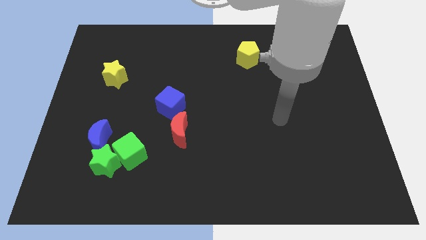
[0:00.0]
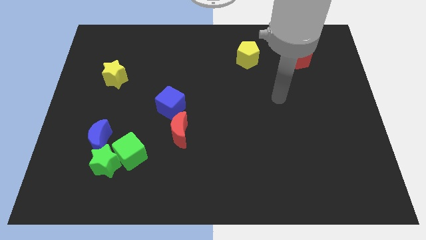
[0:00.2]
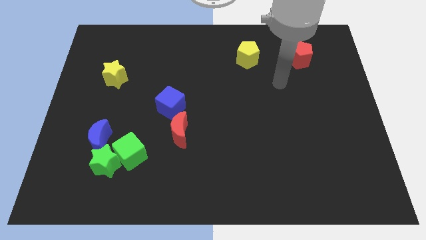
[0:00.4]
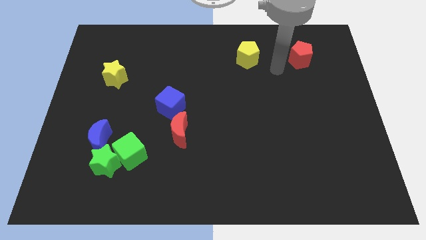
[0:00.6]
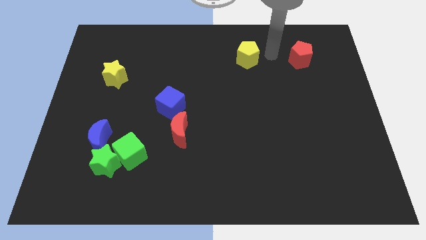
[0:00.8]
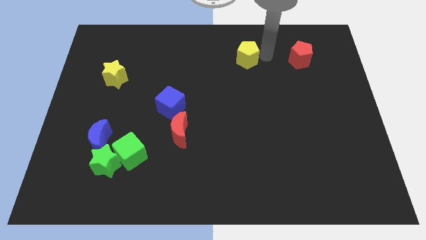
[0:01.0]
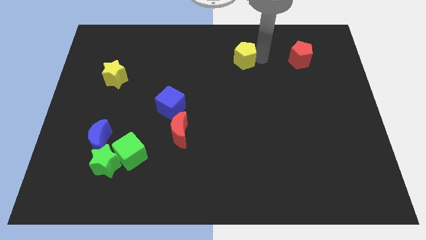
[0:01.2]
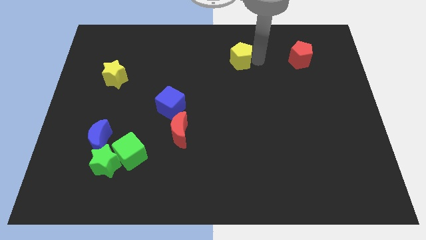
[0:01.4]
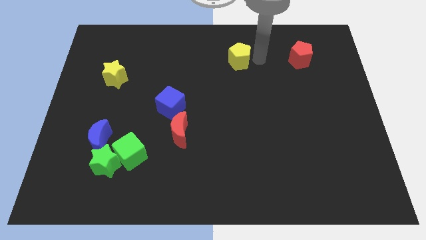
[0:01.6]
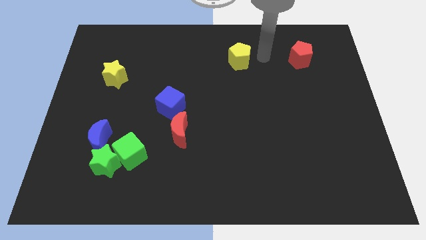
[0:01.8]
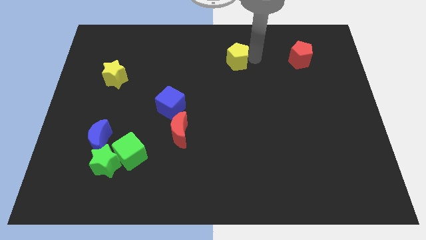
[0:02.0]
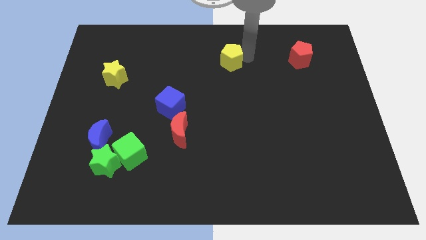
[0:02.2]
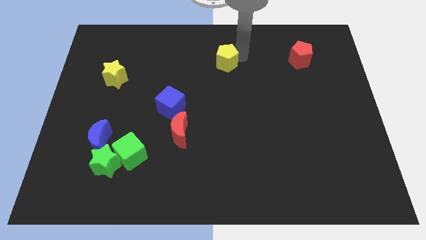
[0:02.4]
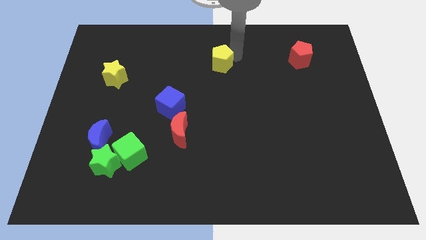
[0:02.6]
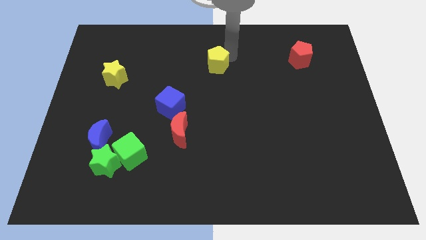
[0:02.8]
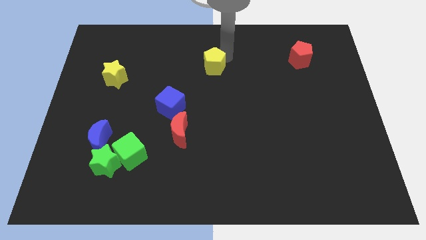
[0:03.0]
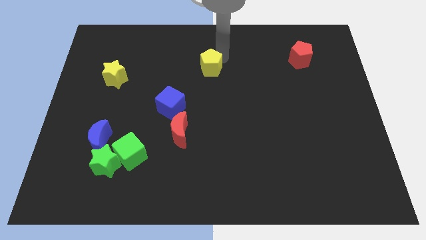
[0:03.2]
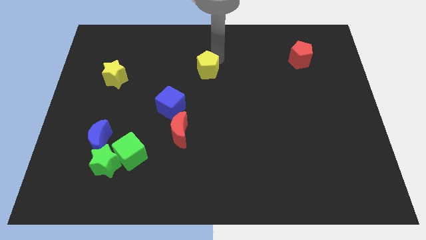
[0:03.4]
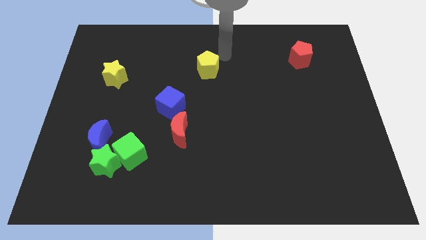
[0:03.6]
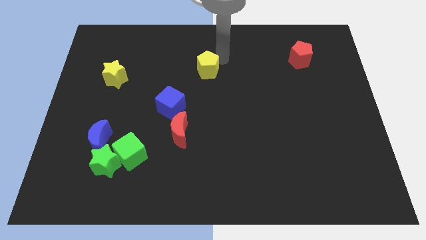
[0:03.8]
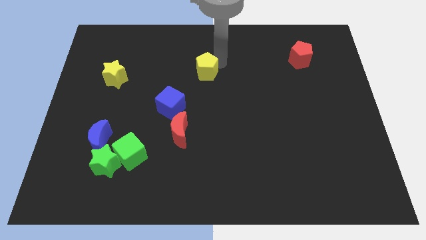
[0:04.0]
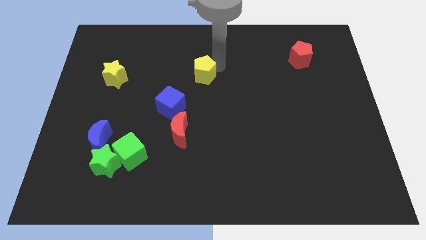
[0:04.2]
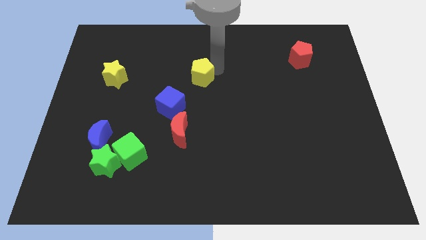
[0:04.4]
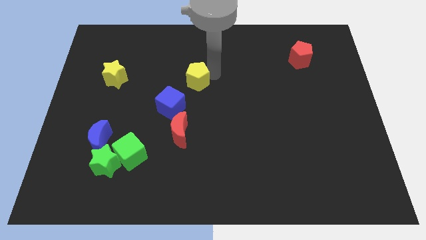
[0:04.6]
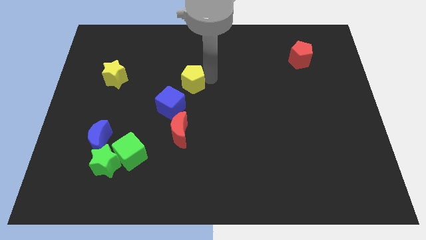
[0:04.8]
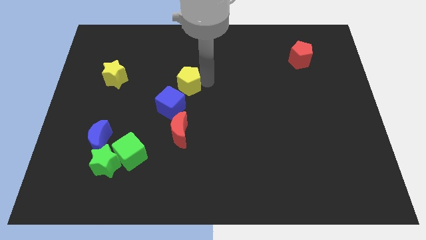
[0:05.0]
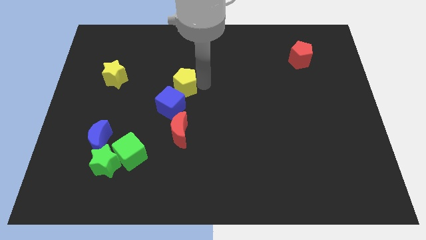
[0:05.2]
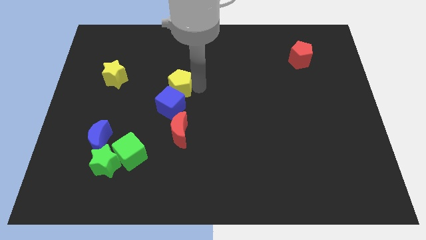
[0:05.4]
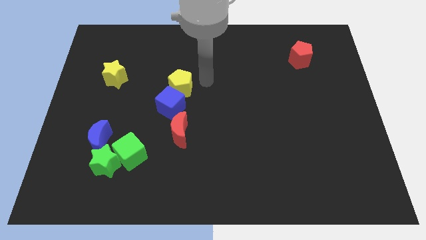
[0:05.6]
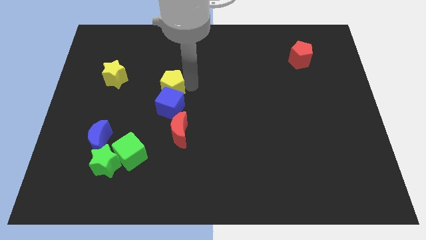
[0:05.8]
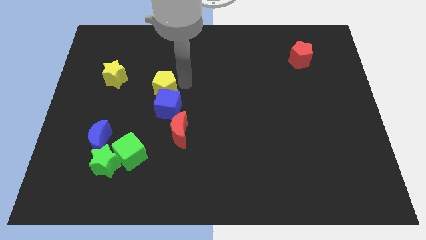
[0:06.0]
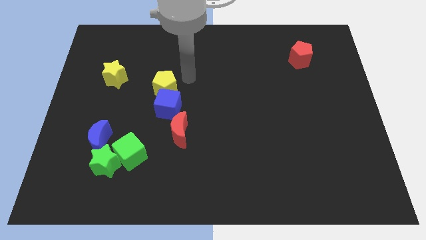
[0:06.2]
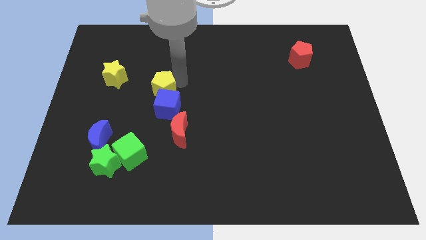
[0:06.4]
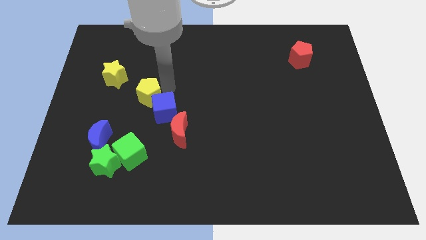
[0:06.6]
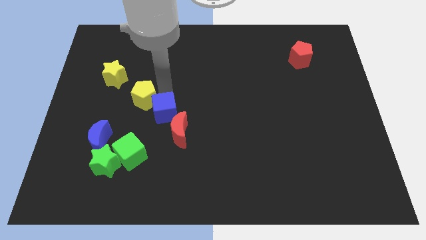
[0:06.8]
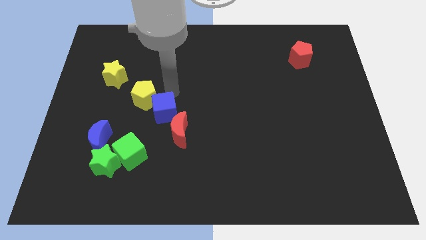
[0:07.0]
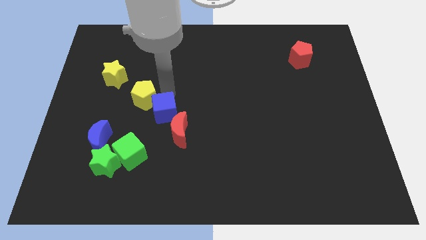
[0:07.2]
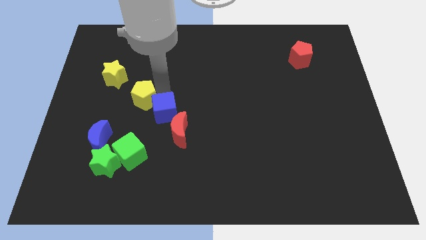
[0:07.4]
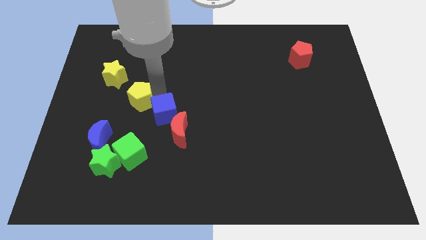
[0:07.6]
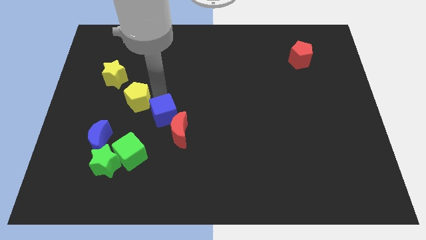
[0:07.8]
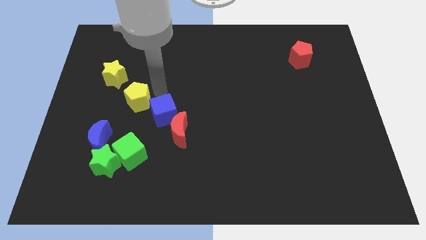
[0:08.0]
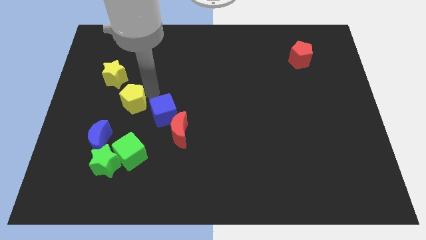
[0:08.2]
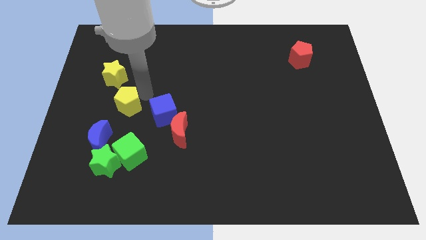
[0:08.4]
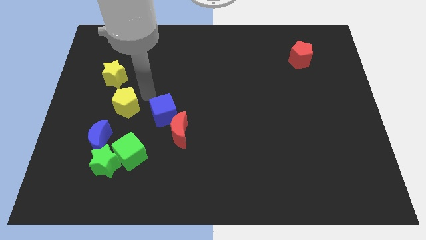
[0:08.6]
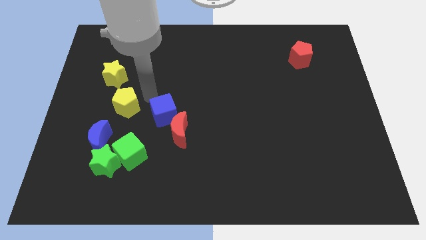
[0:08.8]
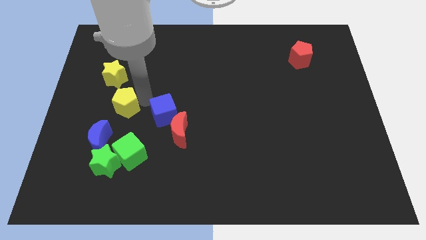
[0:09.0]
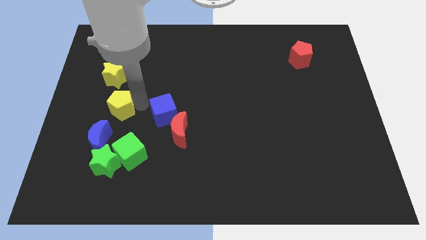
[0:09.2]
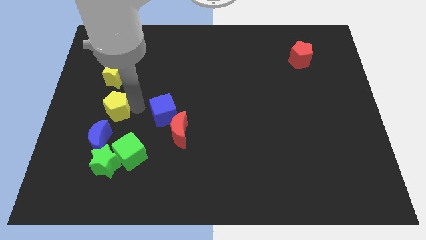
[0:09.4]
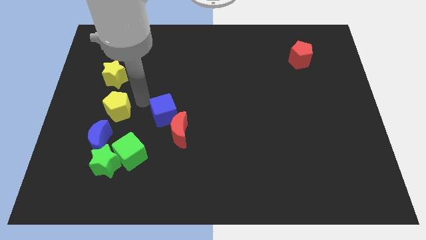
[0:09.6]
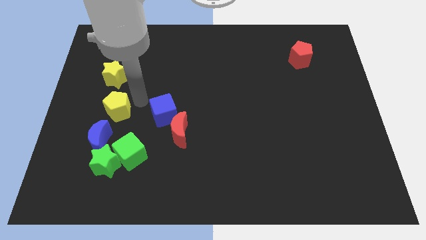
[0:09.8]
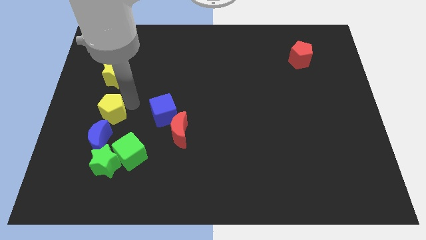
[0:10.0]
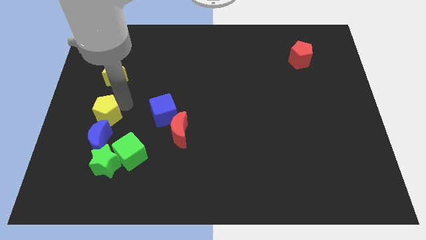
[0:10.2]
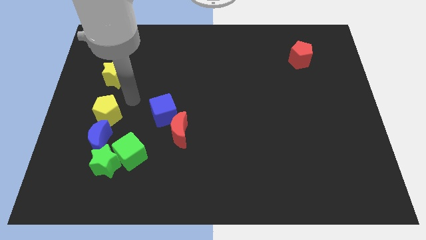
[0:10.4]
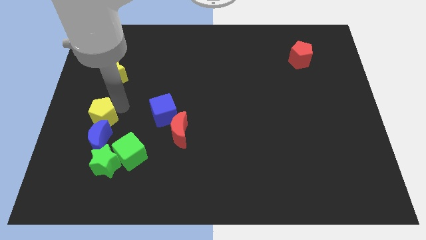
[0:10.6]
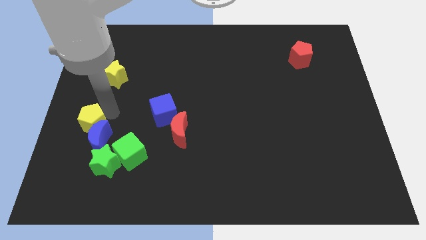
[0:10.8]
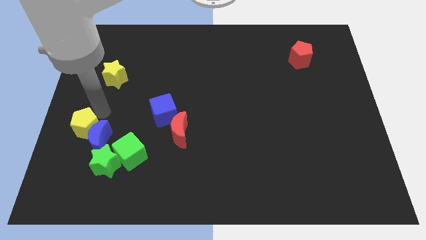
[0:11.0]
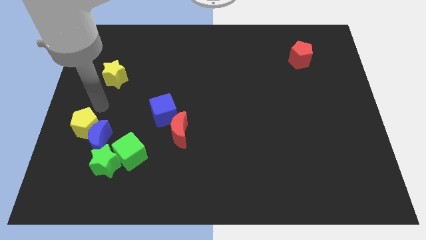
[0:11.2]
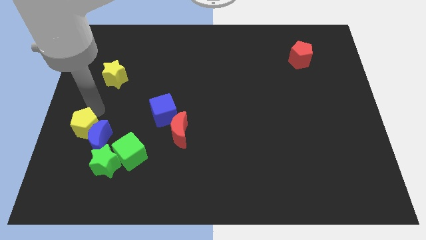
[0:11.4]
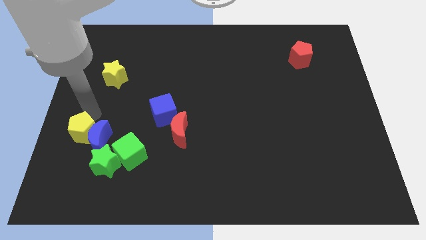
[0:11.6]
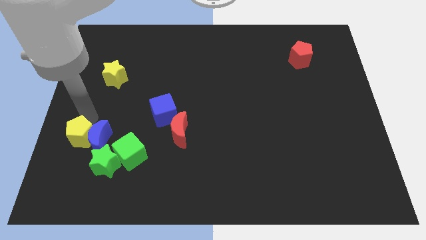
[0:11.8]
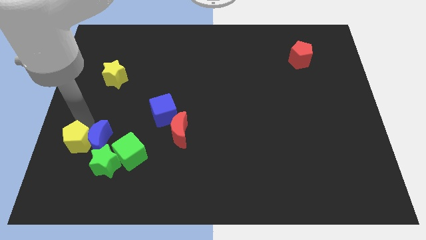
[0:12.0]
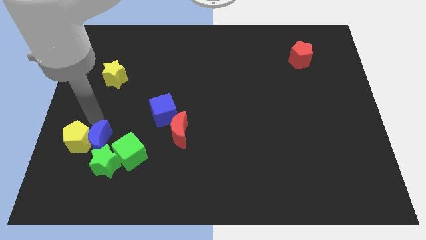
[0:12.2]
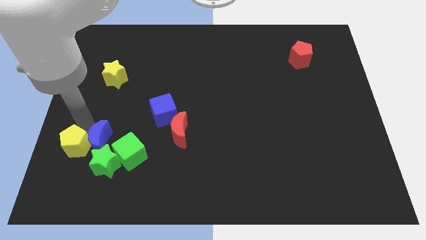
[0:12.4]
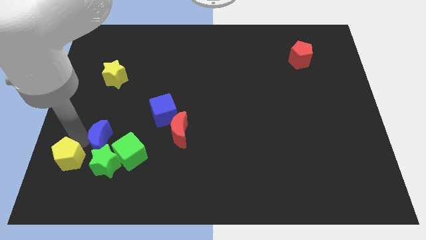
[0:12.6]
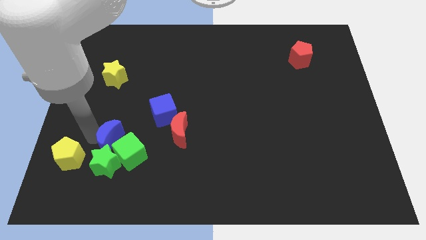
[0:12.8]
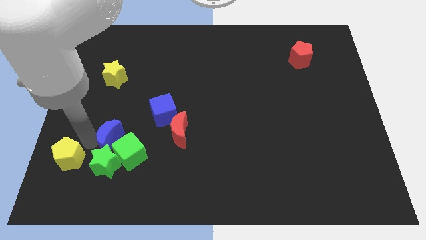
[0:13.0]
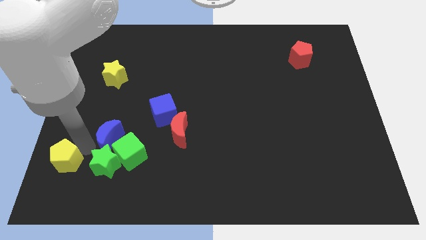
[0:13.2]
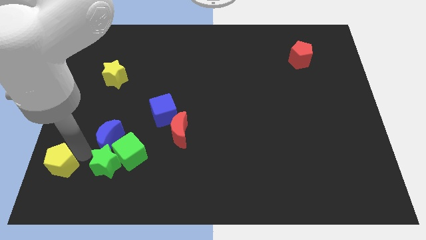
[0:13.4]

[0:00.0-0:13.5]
put the yellow pentagon to the bottom left
